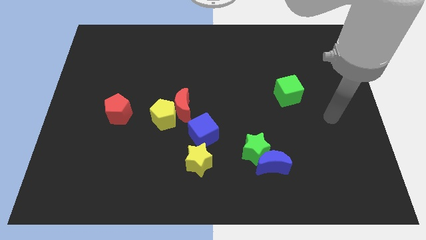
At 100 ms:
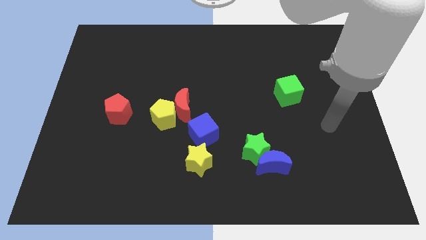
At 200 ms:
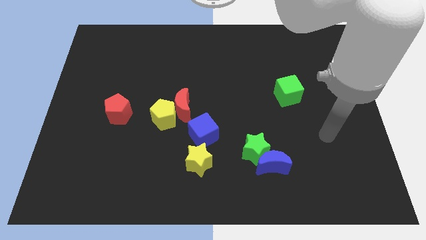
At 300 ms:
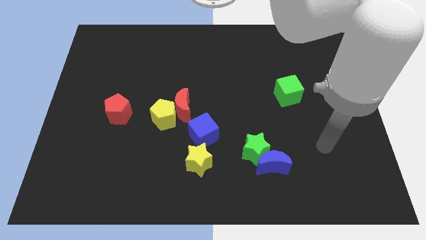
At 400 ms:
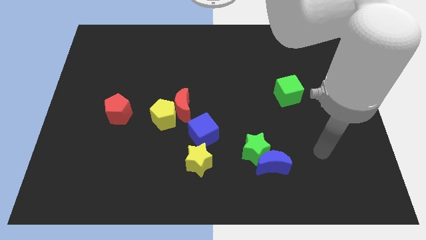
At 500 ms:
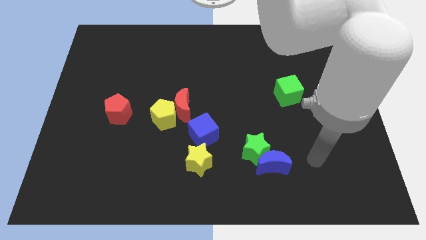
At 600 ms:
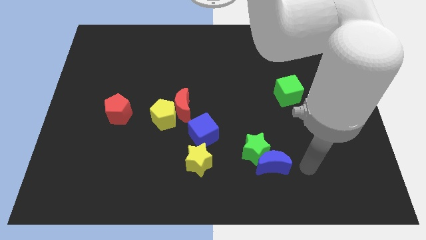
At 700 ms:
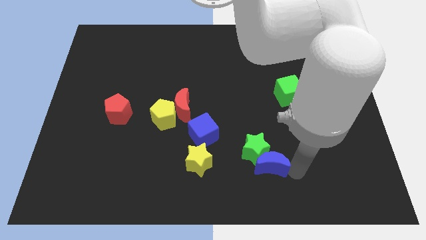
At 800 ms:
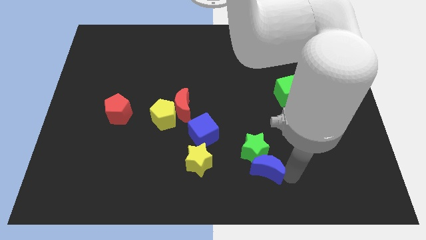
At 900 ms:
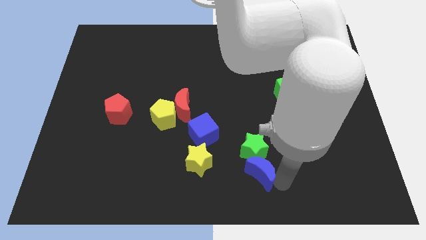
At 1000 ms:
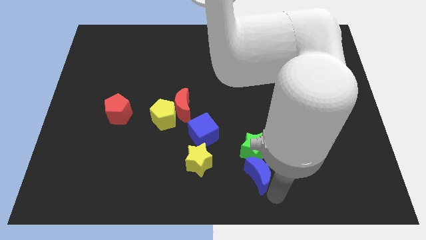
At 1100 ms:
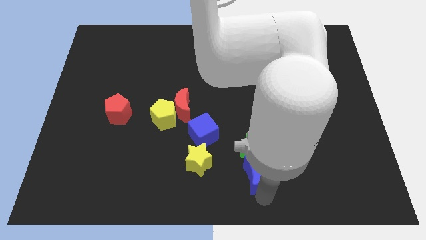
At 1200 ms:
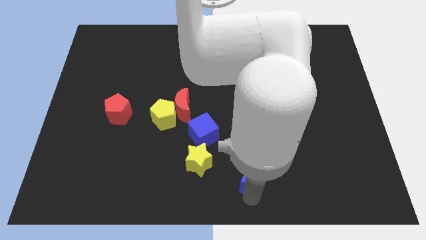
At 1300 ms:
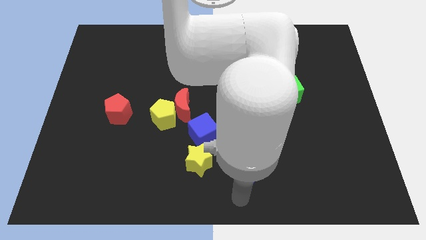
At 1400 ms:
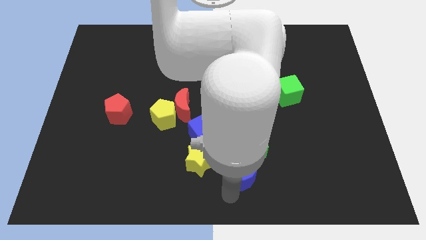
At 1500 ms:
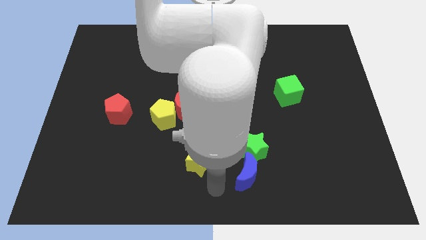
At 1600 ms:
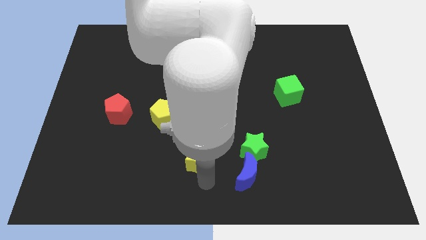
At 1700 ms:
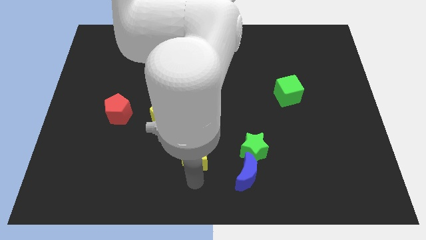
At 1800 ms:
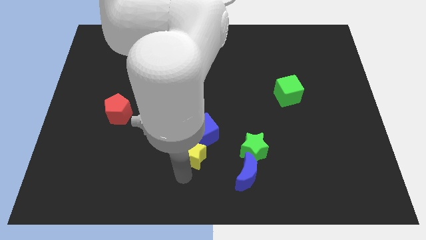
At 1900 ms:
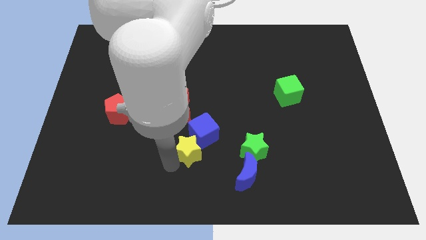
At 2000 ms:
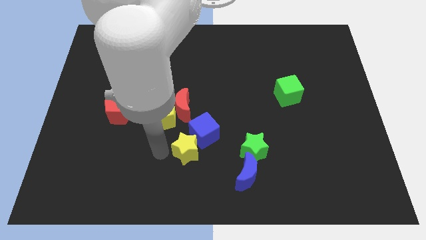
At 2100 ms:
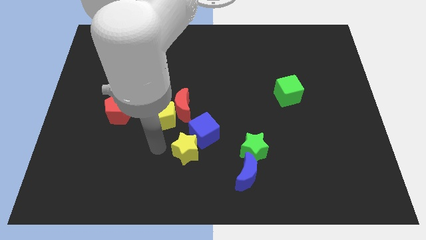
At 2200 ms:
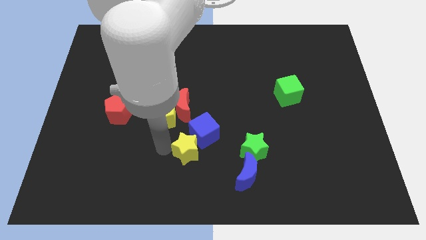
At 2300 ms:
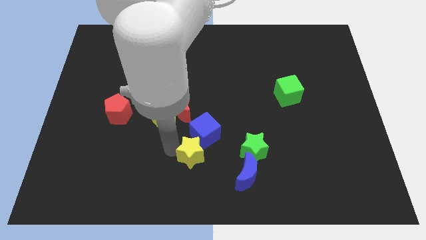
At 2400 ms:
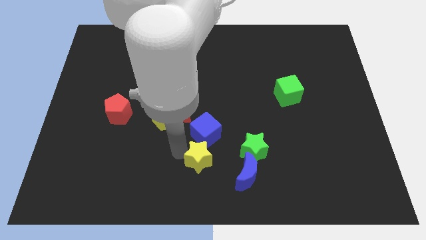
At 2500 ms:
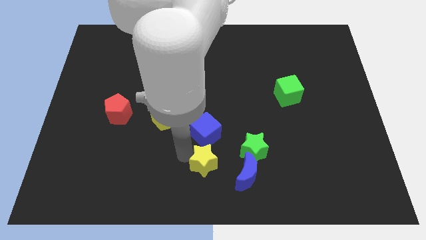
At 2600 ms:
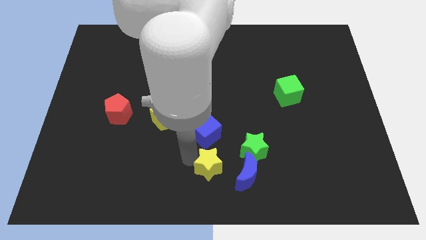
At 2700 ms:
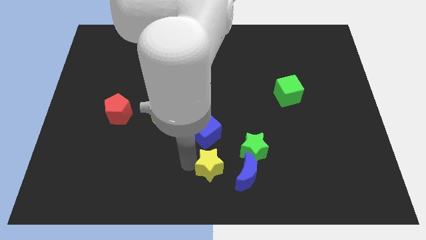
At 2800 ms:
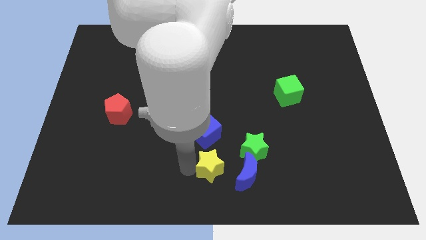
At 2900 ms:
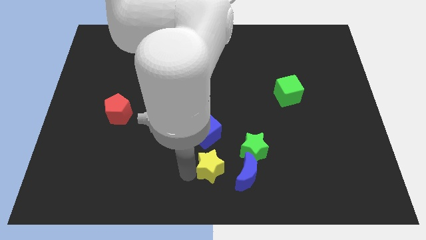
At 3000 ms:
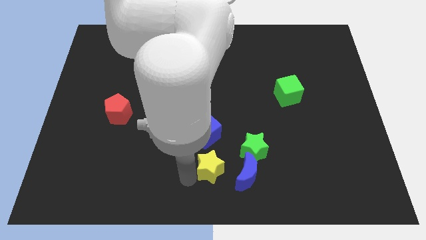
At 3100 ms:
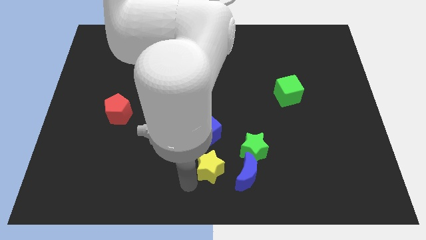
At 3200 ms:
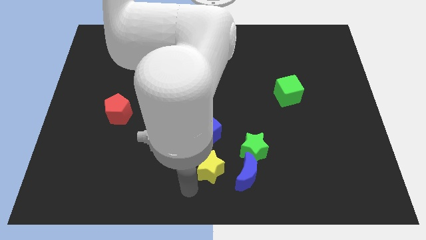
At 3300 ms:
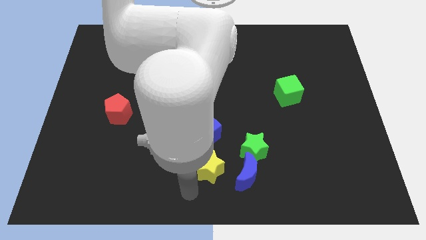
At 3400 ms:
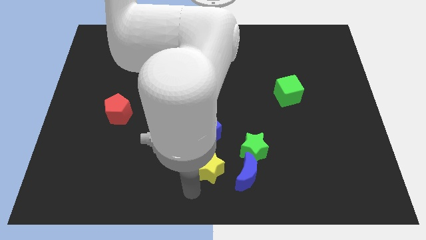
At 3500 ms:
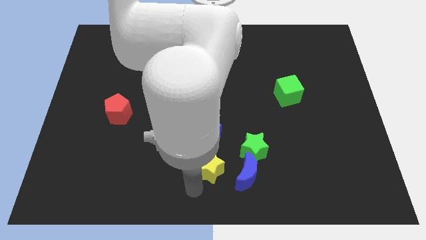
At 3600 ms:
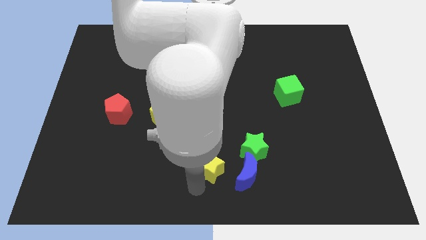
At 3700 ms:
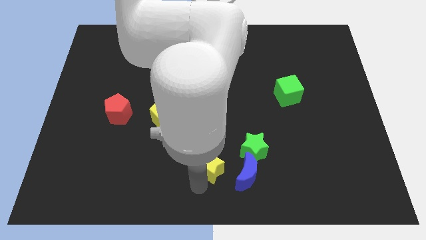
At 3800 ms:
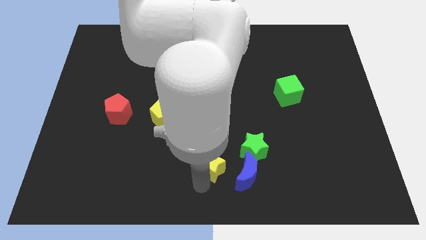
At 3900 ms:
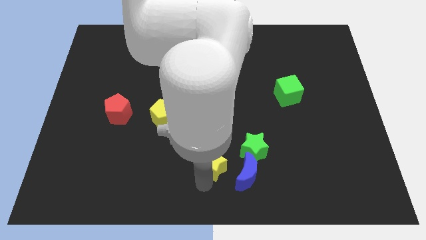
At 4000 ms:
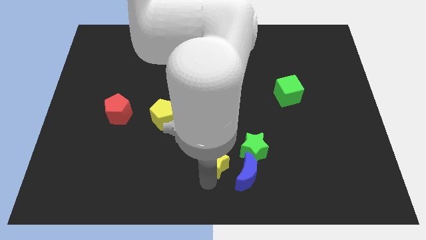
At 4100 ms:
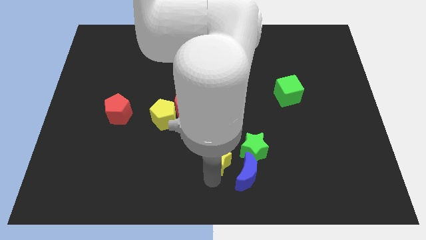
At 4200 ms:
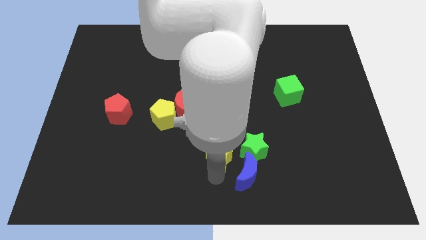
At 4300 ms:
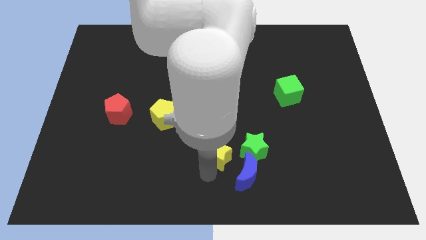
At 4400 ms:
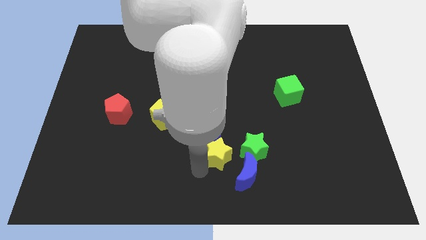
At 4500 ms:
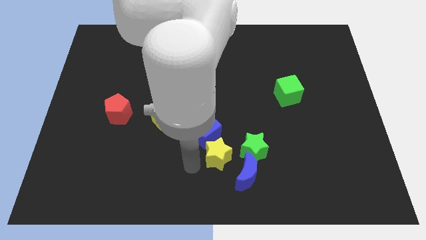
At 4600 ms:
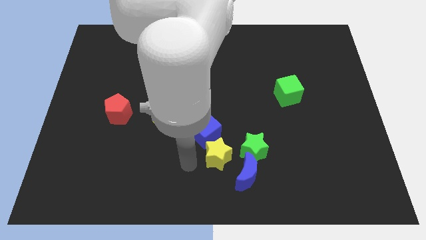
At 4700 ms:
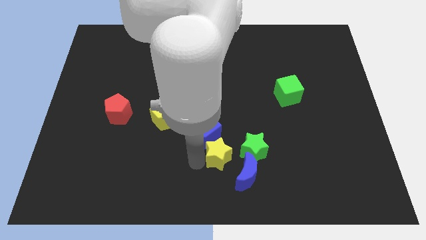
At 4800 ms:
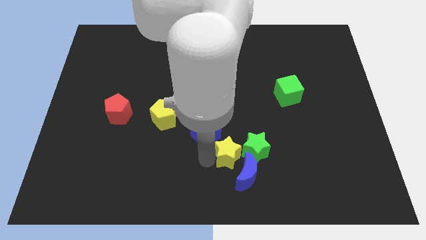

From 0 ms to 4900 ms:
move the yellow star close to the green star

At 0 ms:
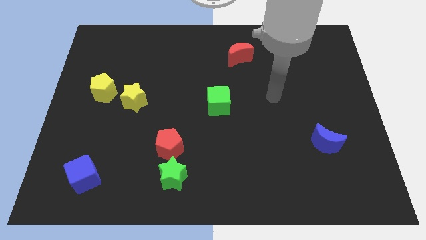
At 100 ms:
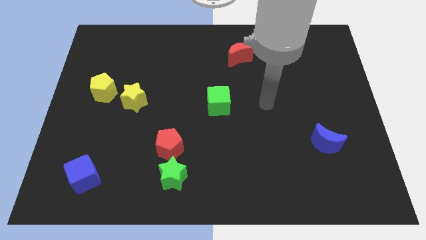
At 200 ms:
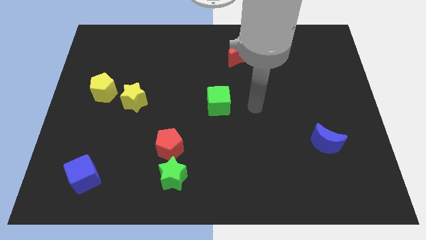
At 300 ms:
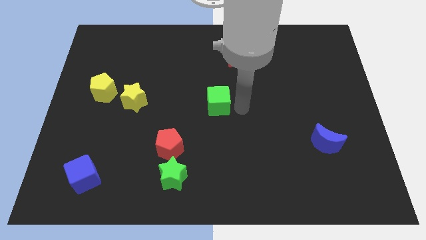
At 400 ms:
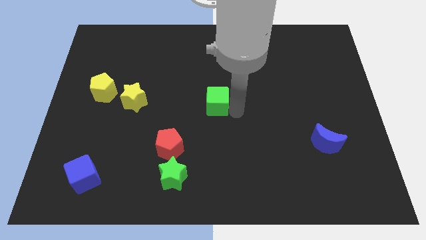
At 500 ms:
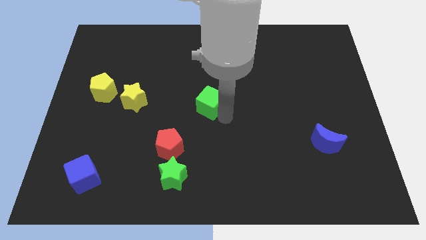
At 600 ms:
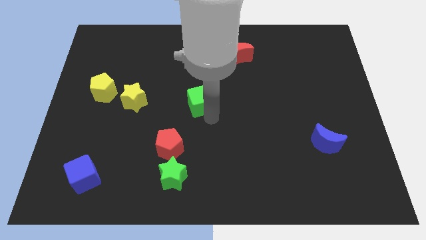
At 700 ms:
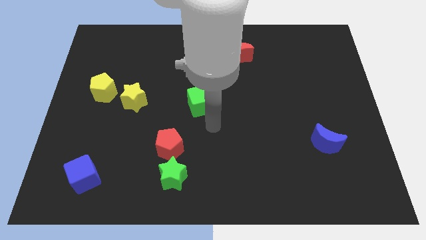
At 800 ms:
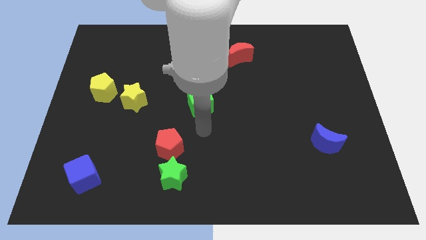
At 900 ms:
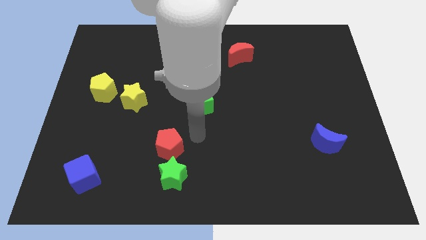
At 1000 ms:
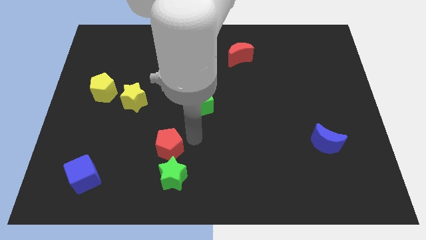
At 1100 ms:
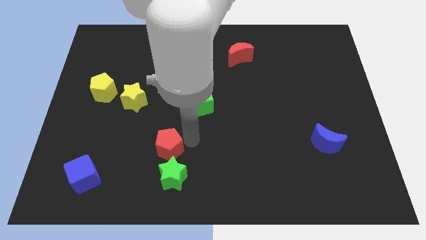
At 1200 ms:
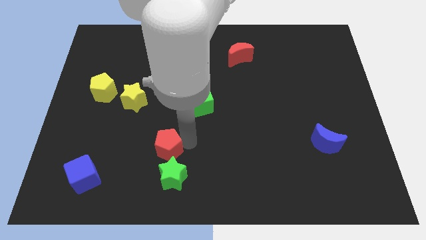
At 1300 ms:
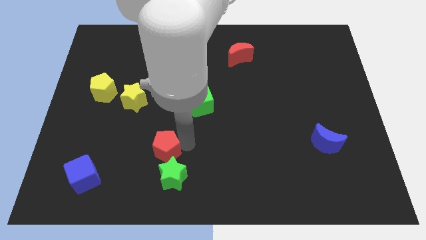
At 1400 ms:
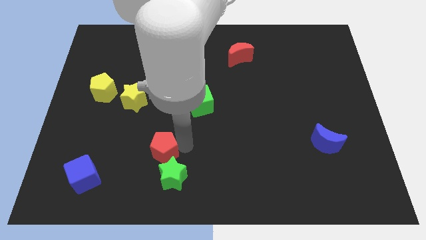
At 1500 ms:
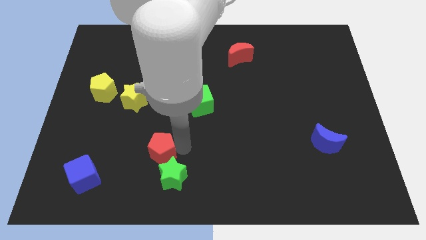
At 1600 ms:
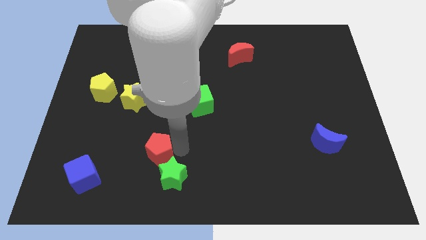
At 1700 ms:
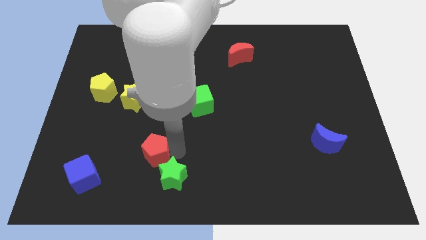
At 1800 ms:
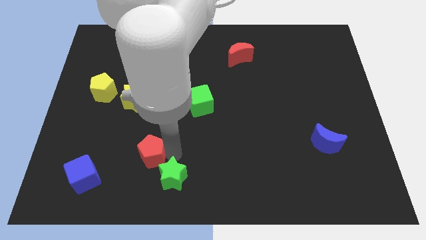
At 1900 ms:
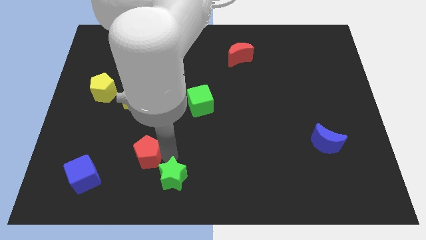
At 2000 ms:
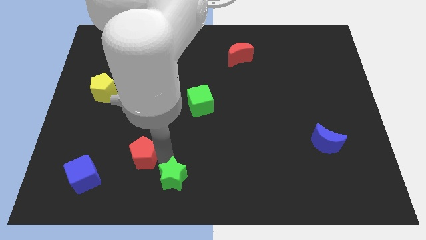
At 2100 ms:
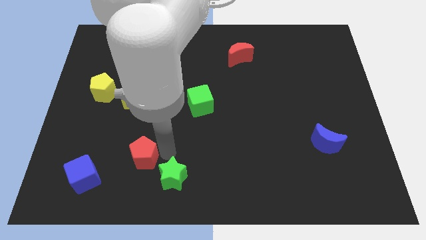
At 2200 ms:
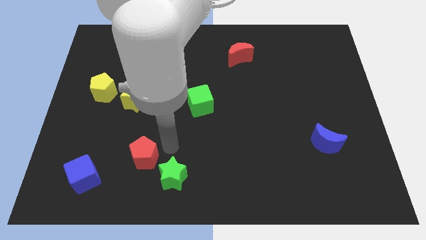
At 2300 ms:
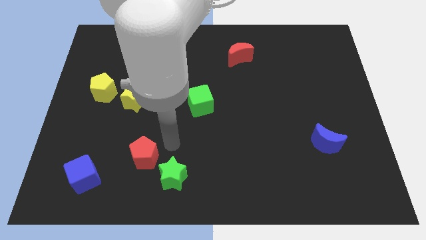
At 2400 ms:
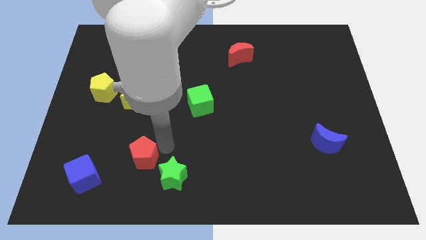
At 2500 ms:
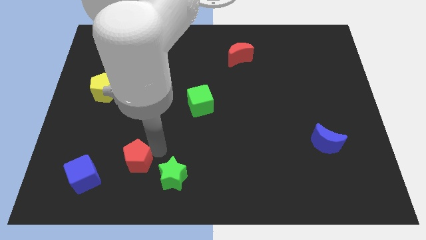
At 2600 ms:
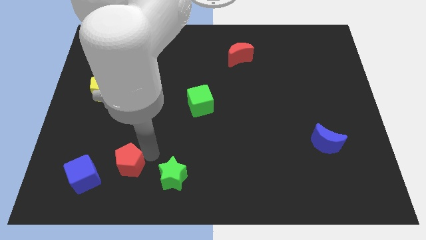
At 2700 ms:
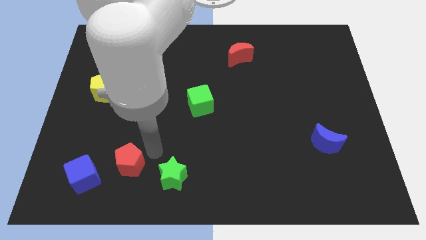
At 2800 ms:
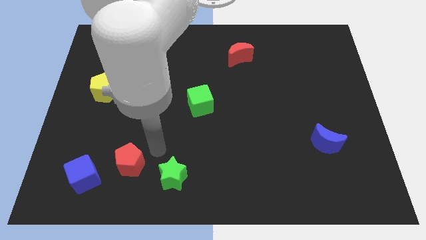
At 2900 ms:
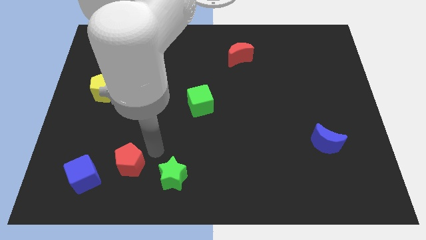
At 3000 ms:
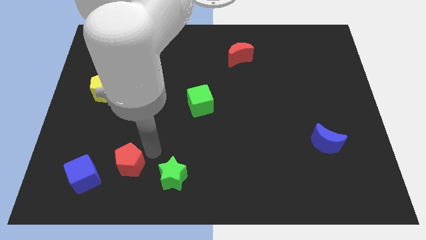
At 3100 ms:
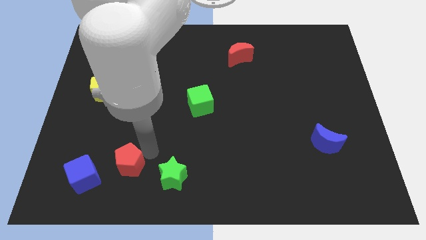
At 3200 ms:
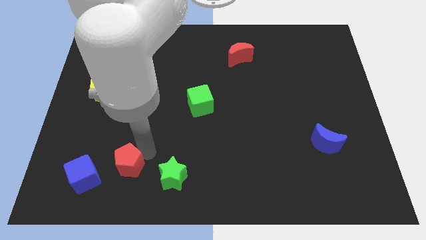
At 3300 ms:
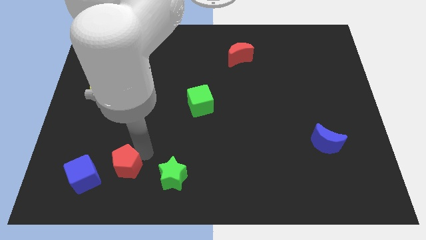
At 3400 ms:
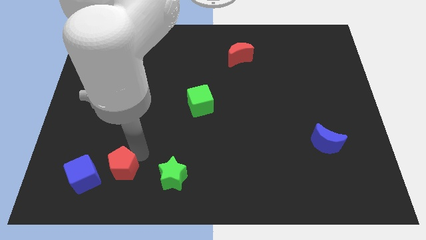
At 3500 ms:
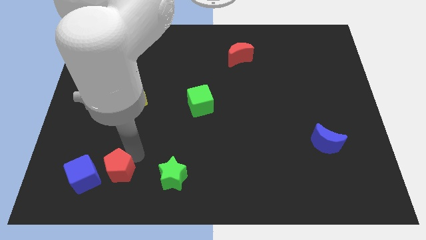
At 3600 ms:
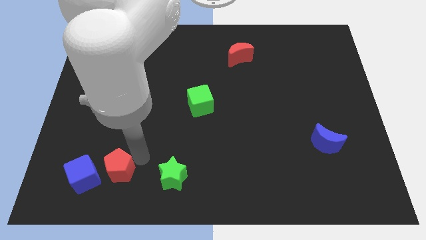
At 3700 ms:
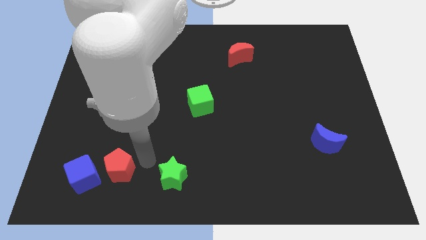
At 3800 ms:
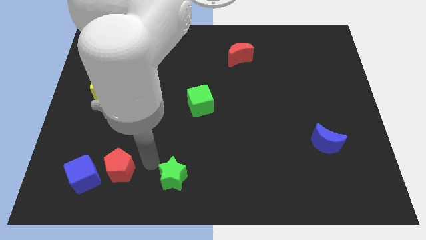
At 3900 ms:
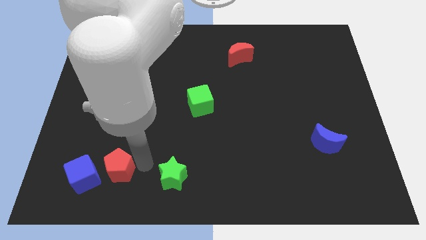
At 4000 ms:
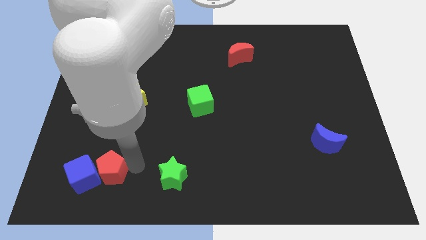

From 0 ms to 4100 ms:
move the red pentagon next to the blue cube
